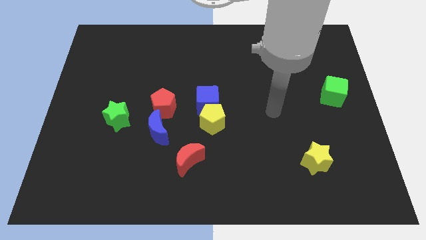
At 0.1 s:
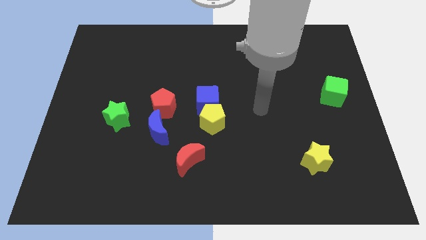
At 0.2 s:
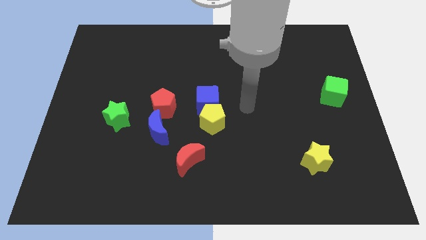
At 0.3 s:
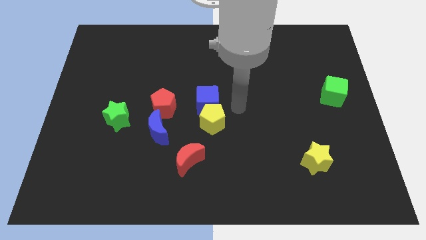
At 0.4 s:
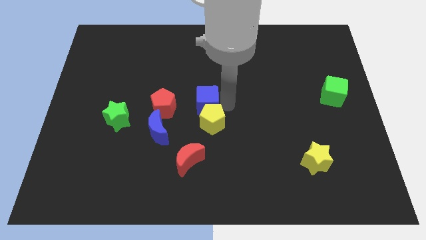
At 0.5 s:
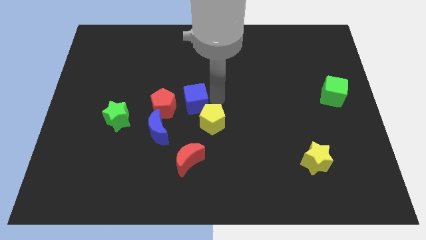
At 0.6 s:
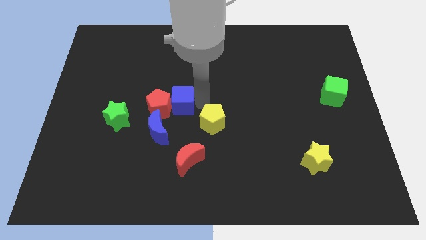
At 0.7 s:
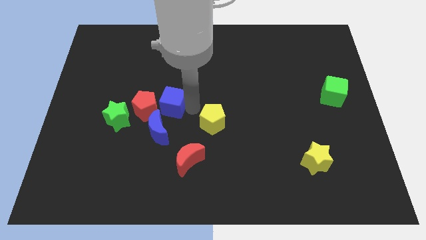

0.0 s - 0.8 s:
separate the yellow pentagon from the blue cube

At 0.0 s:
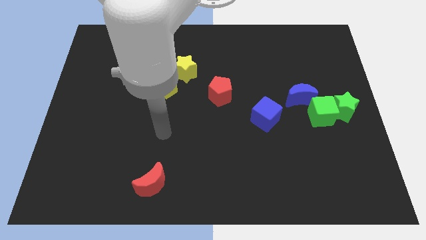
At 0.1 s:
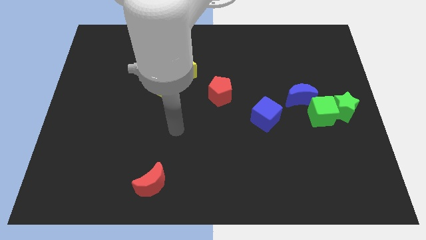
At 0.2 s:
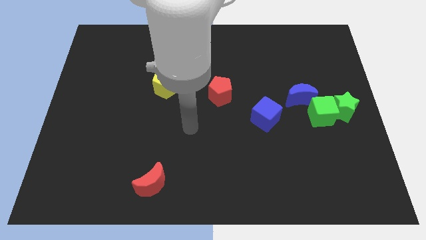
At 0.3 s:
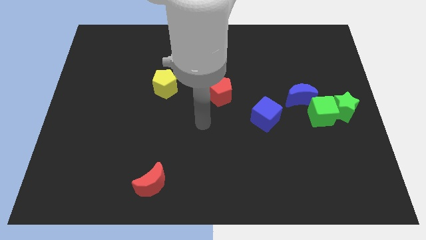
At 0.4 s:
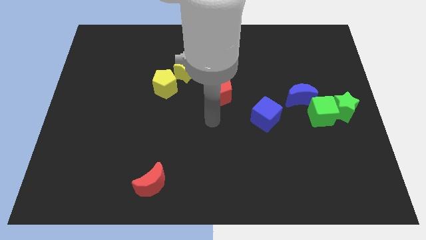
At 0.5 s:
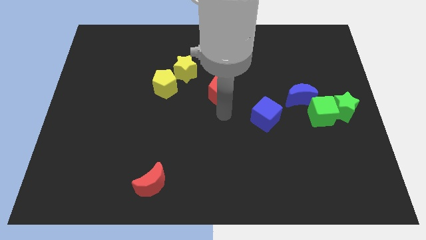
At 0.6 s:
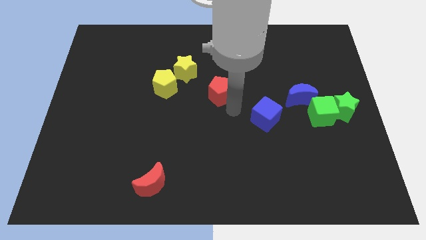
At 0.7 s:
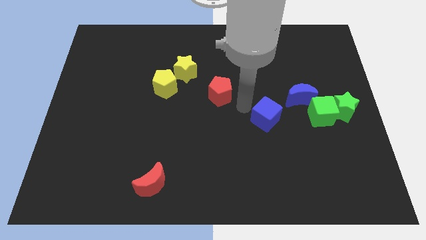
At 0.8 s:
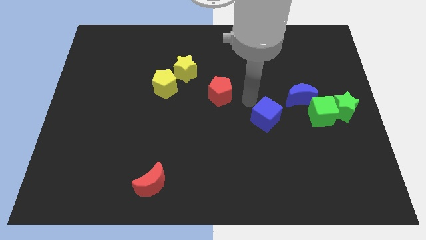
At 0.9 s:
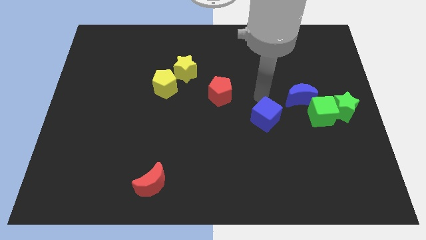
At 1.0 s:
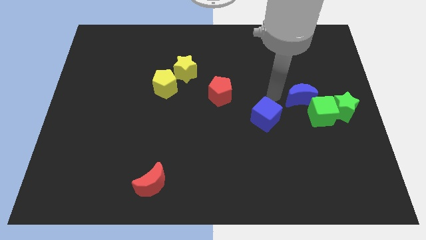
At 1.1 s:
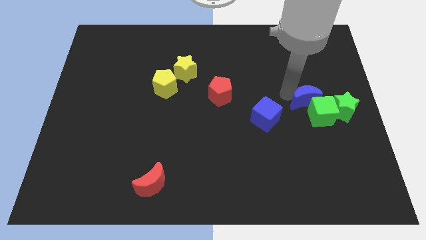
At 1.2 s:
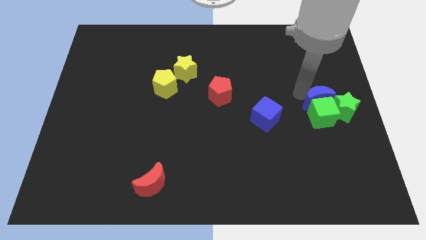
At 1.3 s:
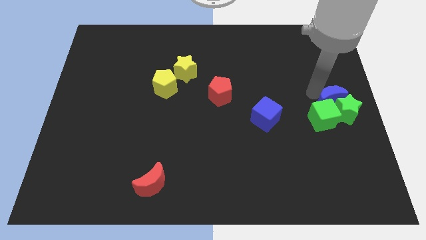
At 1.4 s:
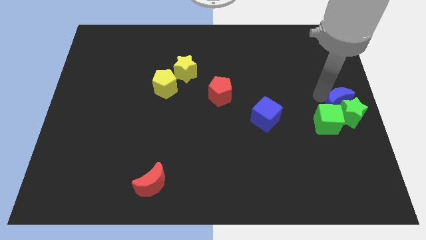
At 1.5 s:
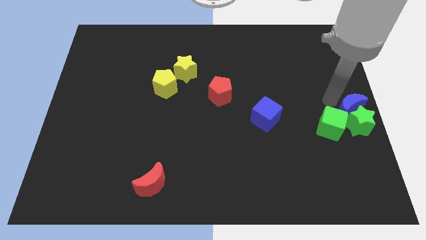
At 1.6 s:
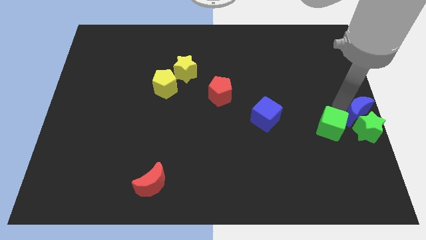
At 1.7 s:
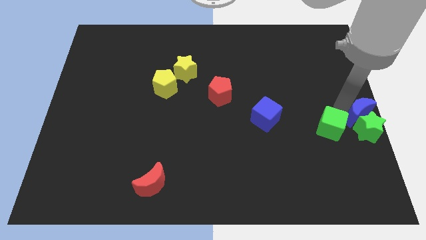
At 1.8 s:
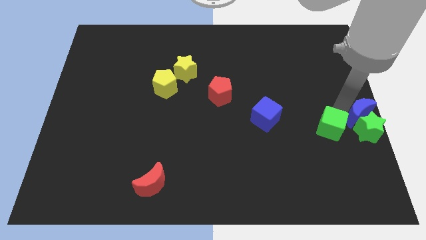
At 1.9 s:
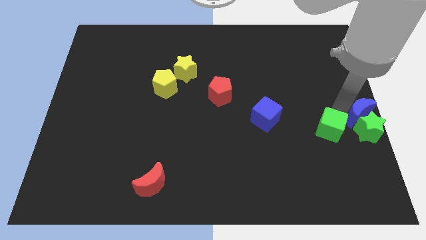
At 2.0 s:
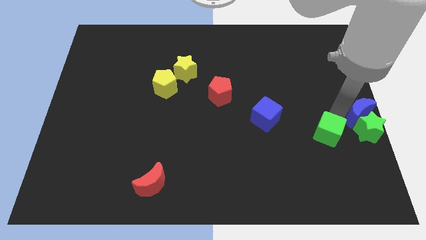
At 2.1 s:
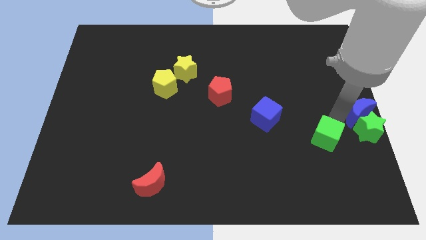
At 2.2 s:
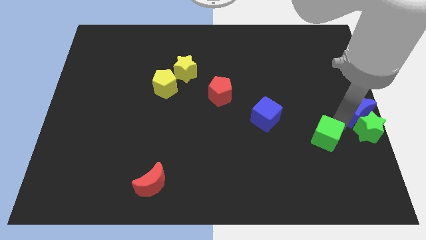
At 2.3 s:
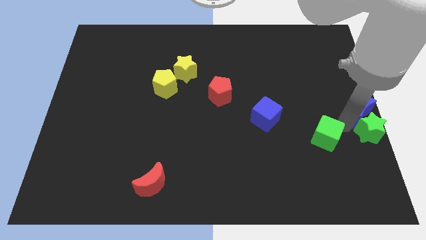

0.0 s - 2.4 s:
pull the green cube apart from the green star and blue moon

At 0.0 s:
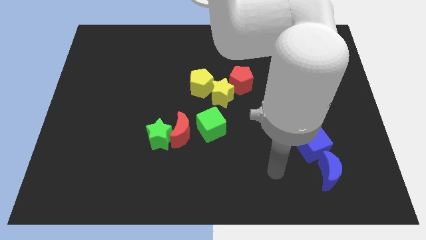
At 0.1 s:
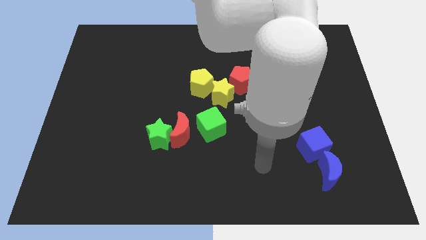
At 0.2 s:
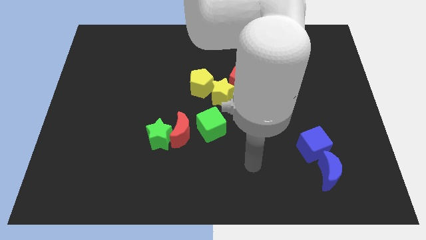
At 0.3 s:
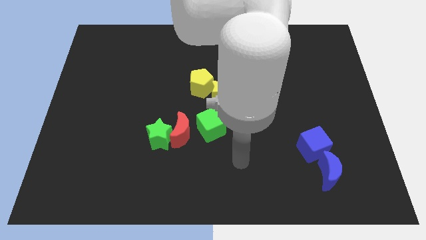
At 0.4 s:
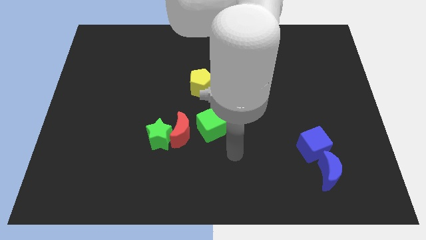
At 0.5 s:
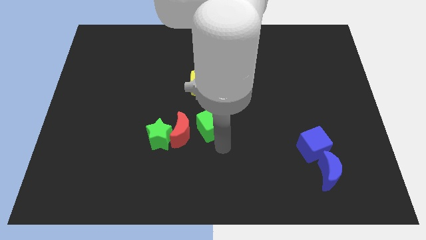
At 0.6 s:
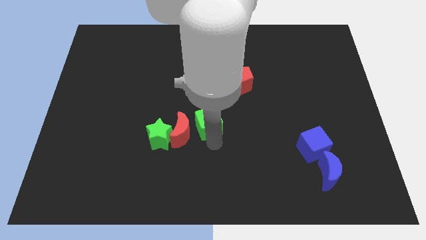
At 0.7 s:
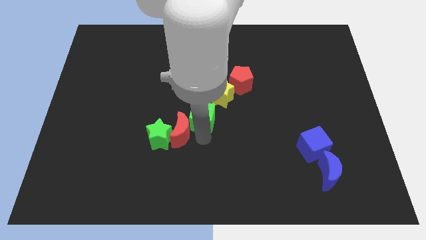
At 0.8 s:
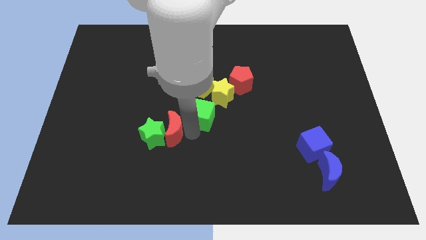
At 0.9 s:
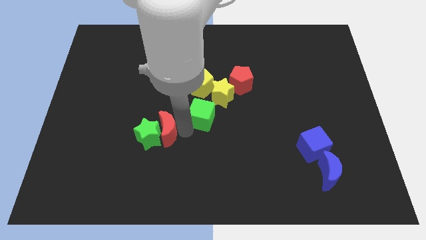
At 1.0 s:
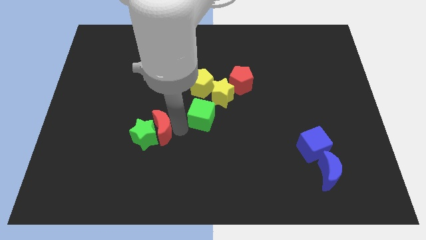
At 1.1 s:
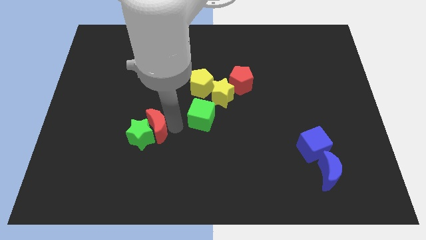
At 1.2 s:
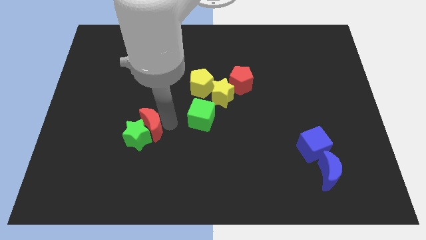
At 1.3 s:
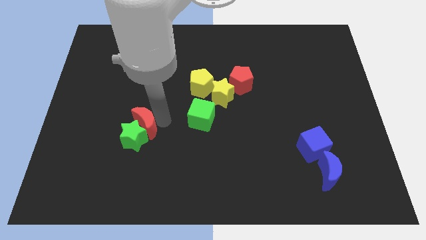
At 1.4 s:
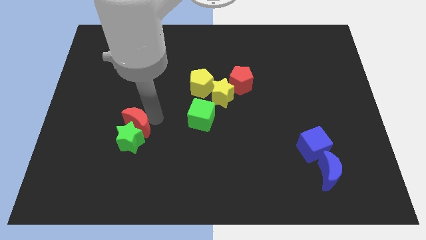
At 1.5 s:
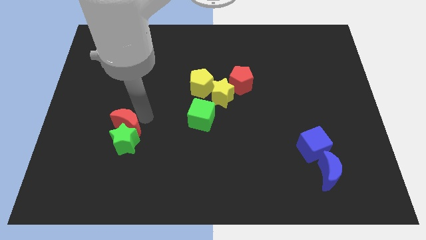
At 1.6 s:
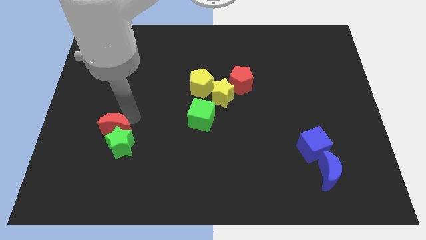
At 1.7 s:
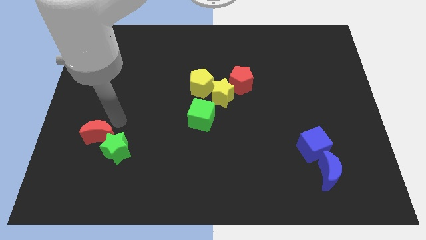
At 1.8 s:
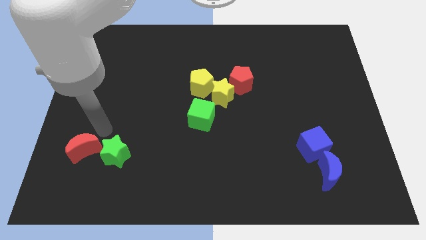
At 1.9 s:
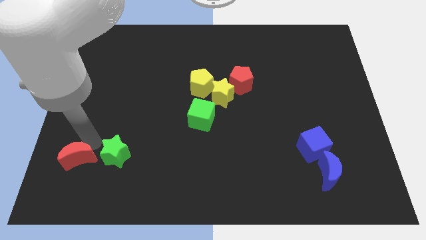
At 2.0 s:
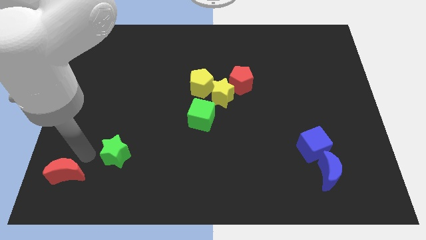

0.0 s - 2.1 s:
move the green star away from the red moon

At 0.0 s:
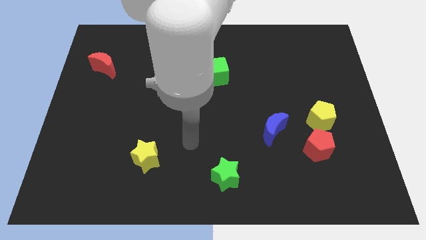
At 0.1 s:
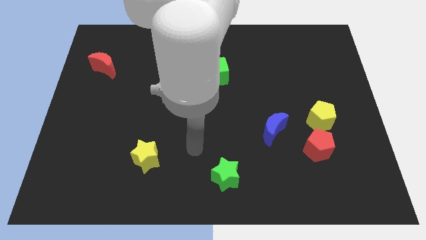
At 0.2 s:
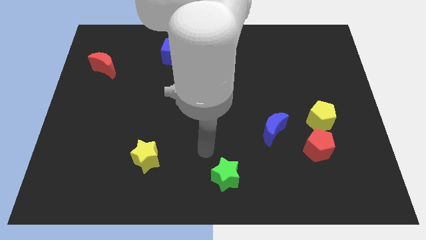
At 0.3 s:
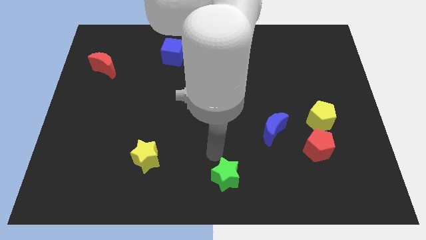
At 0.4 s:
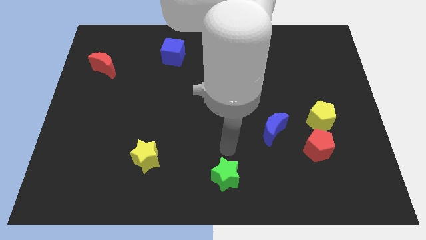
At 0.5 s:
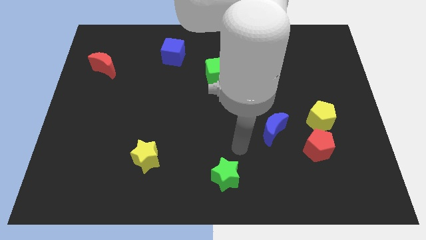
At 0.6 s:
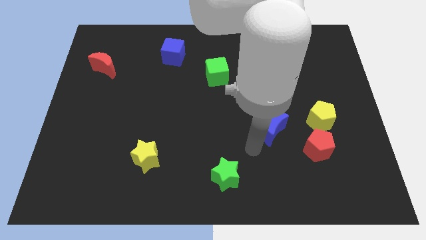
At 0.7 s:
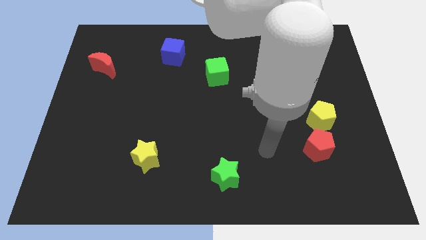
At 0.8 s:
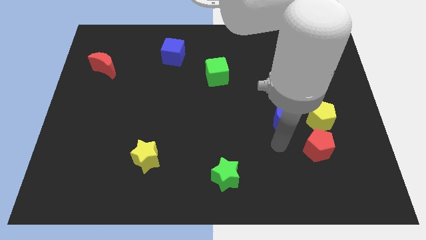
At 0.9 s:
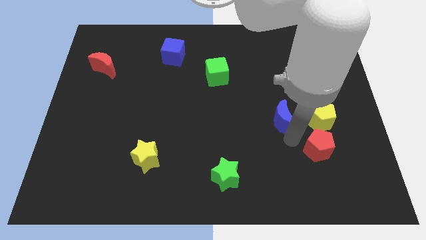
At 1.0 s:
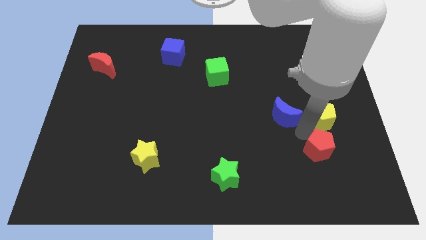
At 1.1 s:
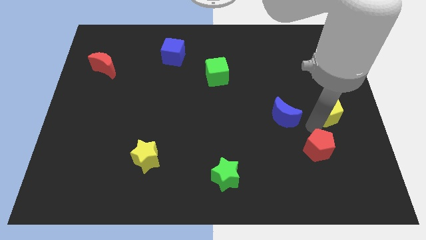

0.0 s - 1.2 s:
move the red pentagon away from the yellow pentagon

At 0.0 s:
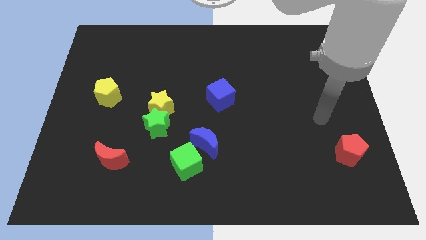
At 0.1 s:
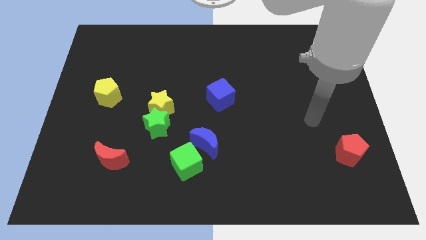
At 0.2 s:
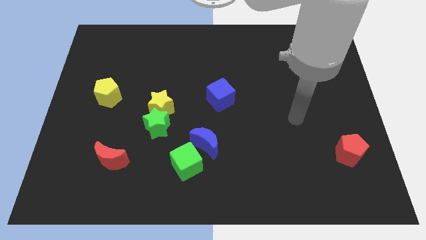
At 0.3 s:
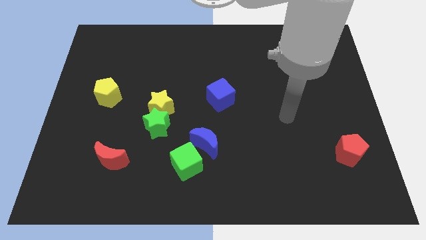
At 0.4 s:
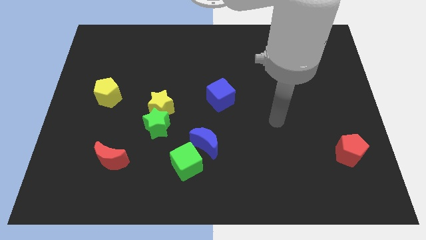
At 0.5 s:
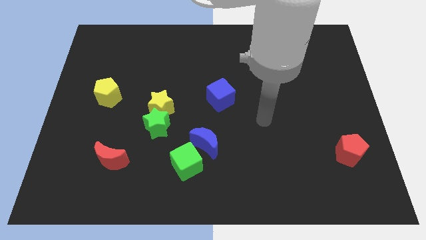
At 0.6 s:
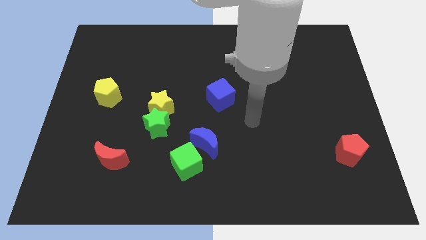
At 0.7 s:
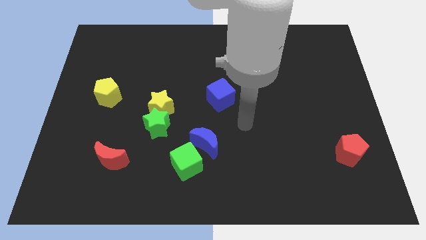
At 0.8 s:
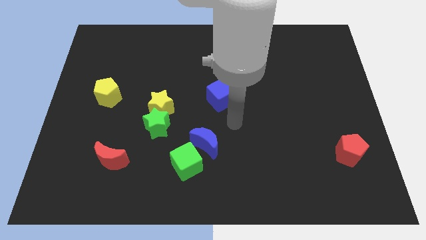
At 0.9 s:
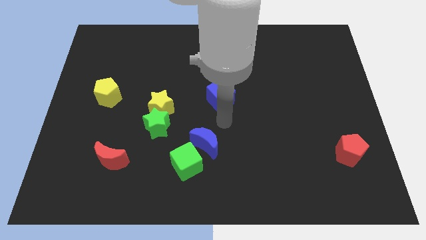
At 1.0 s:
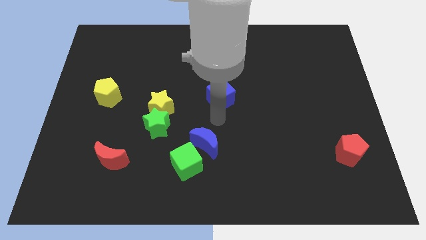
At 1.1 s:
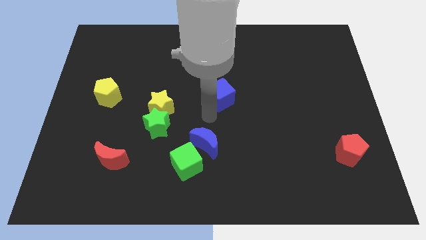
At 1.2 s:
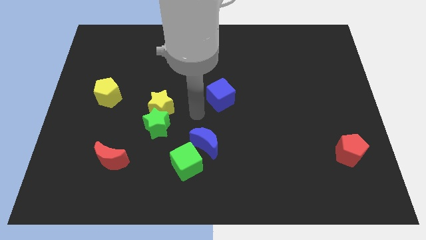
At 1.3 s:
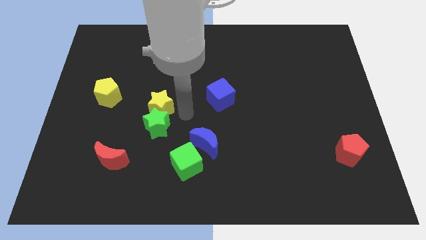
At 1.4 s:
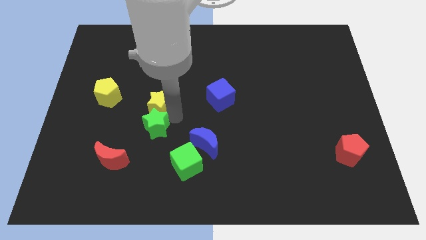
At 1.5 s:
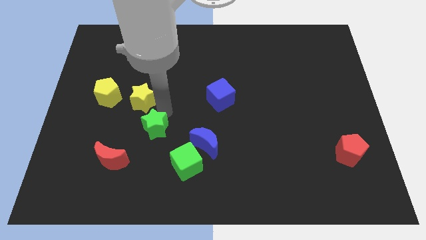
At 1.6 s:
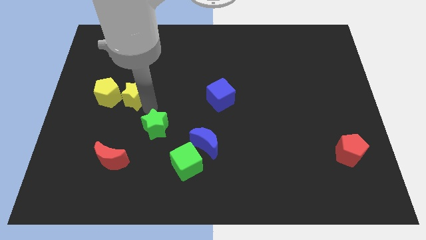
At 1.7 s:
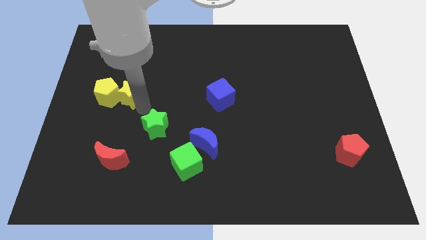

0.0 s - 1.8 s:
separate the green star from the yellow star

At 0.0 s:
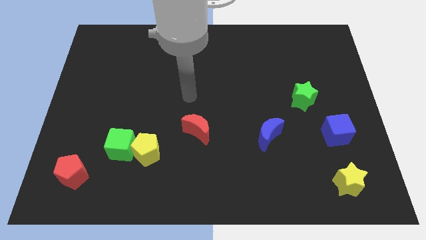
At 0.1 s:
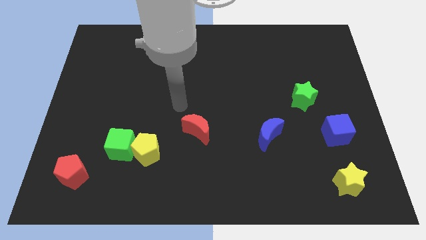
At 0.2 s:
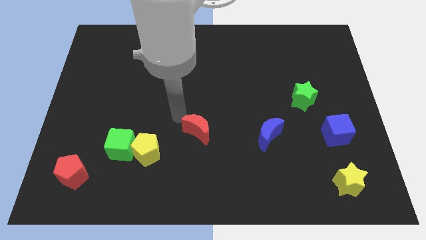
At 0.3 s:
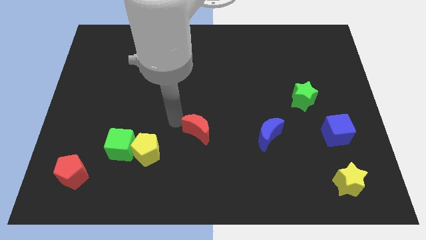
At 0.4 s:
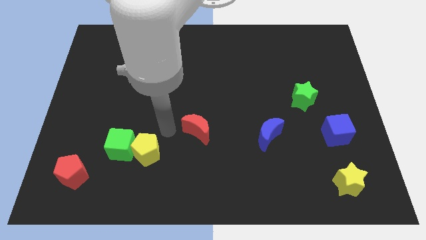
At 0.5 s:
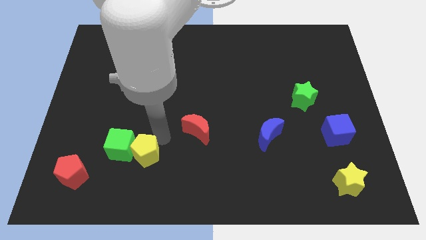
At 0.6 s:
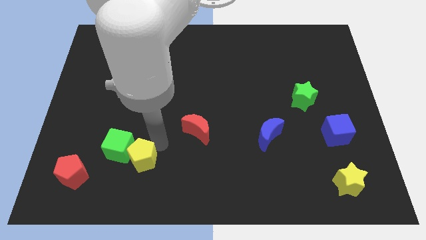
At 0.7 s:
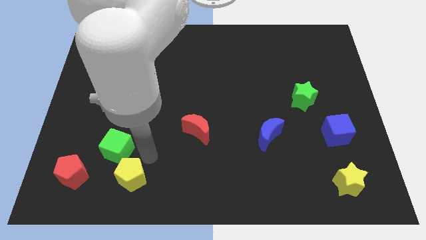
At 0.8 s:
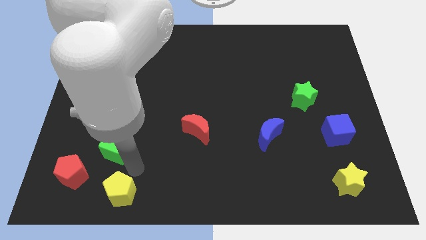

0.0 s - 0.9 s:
pull the green cube apart from the yellow pentagon
